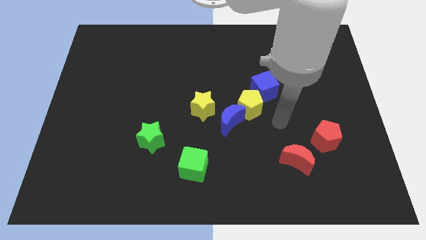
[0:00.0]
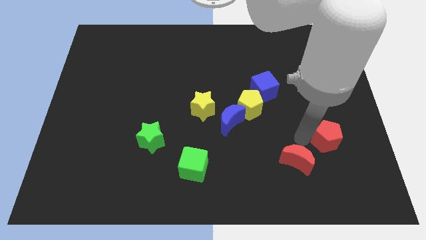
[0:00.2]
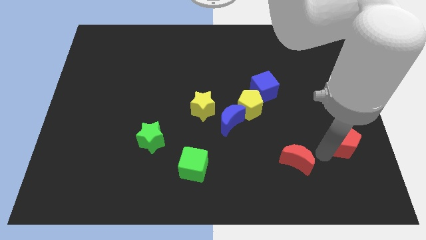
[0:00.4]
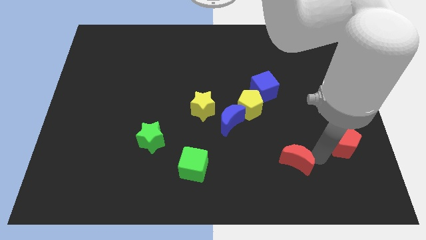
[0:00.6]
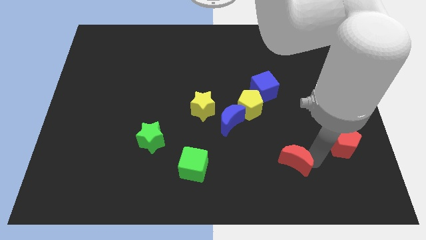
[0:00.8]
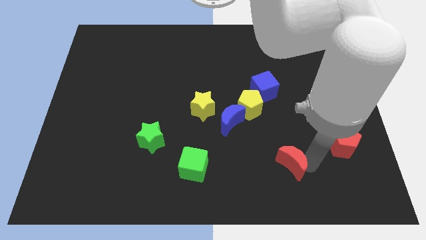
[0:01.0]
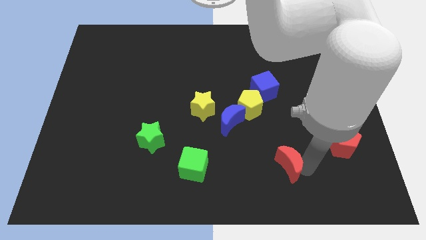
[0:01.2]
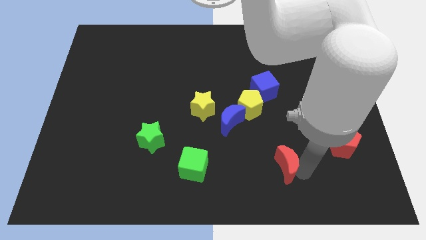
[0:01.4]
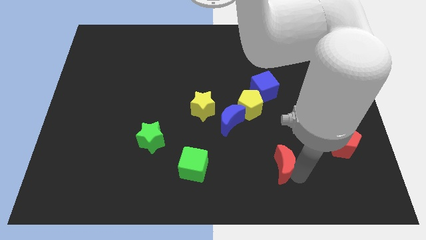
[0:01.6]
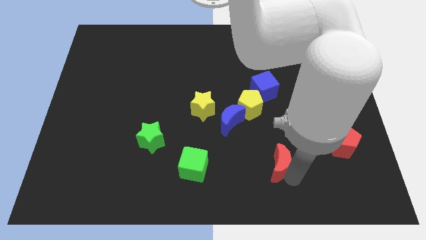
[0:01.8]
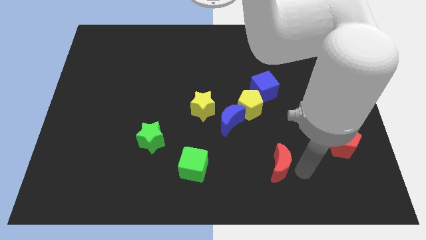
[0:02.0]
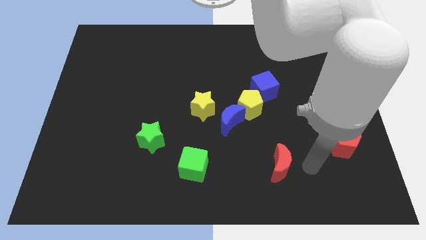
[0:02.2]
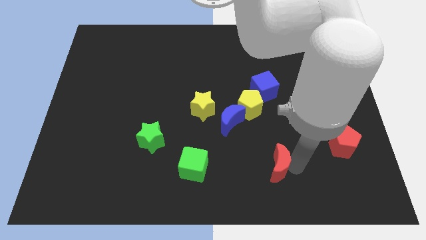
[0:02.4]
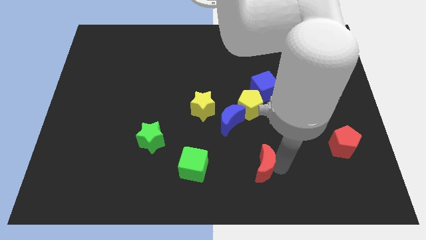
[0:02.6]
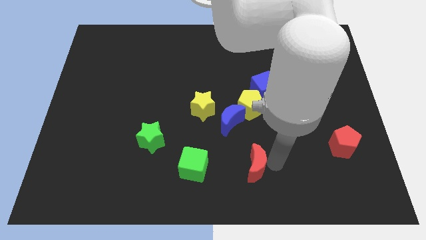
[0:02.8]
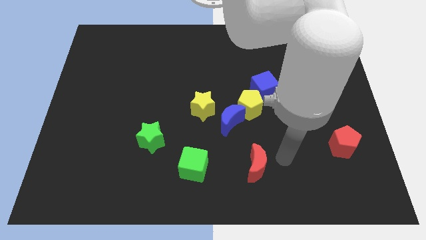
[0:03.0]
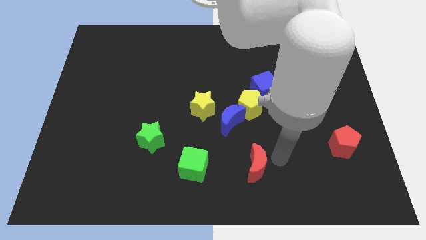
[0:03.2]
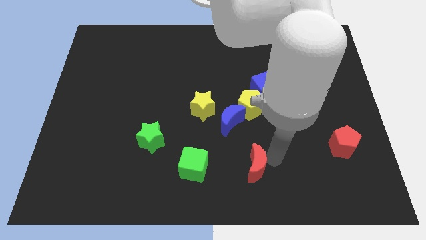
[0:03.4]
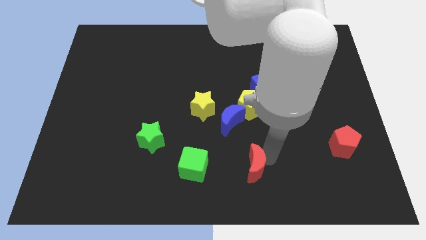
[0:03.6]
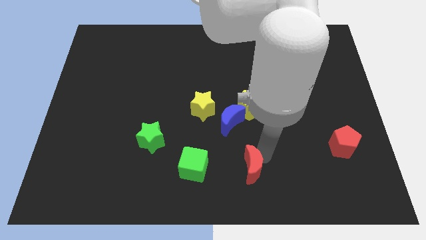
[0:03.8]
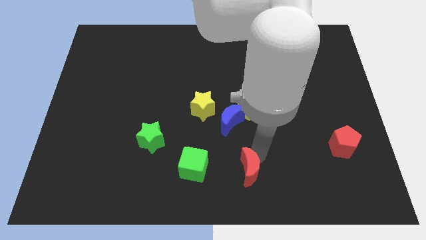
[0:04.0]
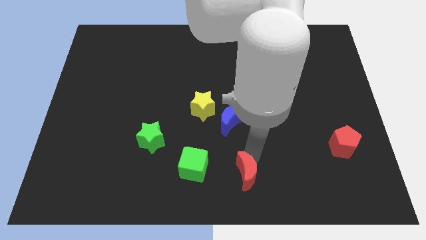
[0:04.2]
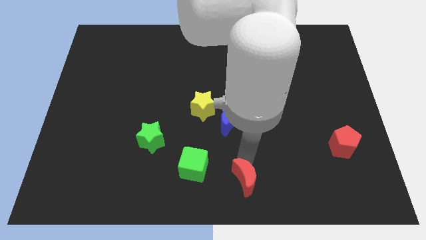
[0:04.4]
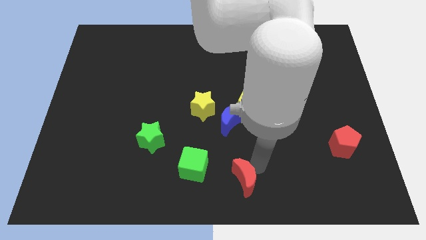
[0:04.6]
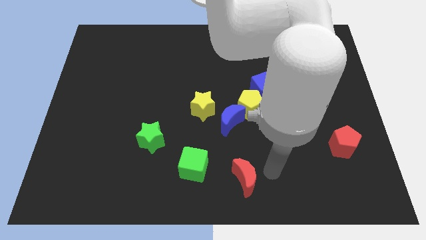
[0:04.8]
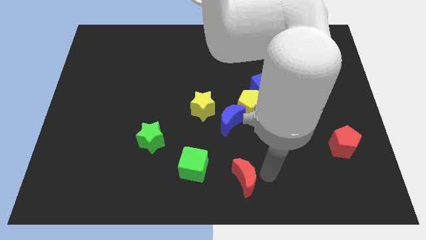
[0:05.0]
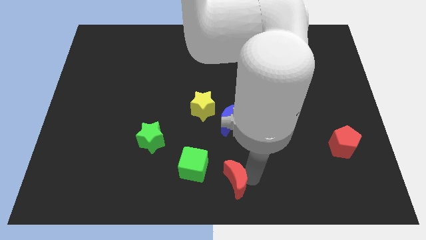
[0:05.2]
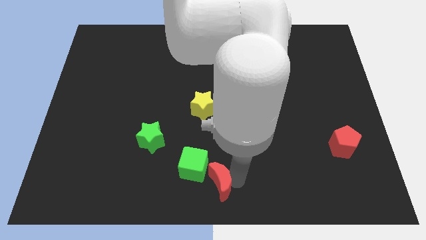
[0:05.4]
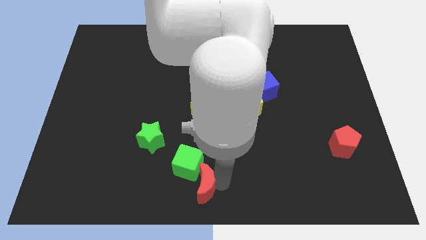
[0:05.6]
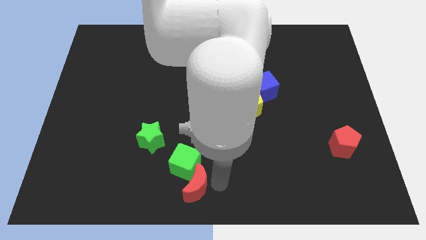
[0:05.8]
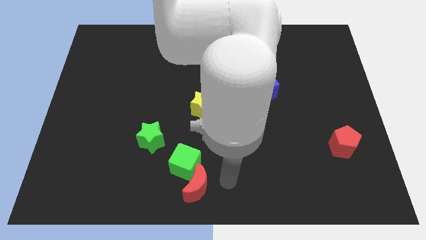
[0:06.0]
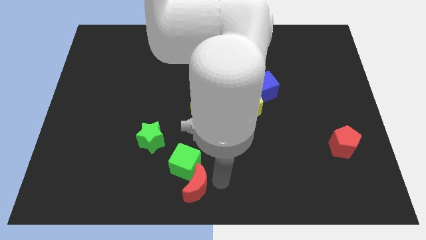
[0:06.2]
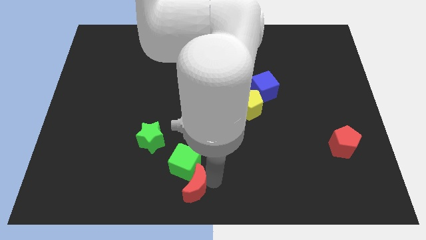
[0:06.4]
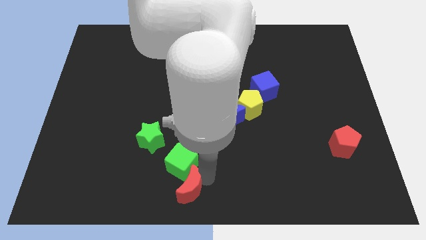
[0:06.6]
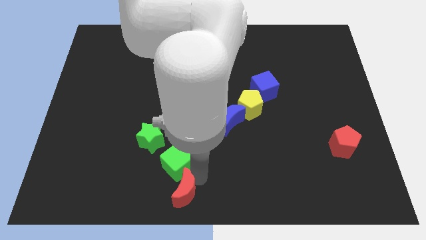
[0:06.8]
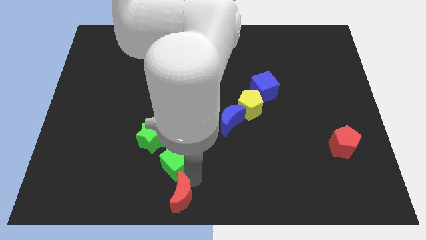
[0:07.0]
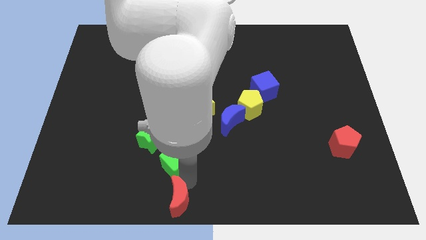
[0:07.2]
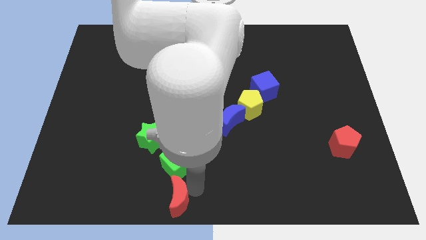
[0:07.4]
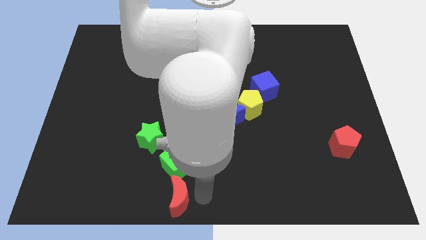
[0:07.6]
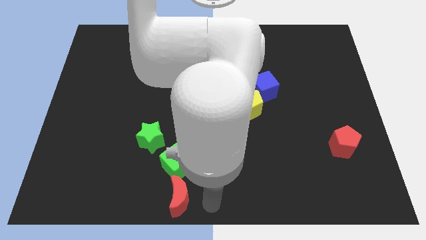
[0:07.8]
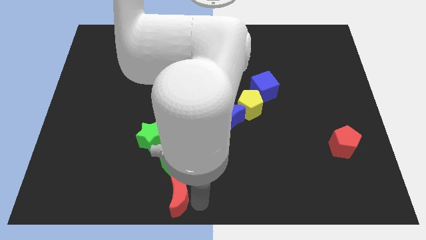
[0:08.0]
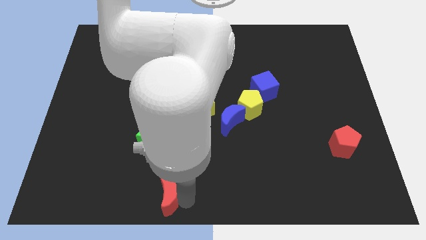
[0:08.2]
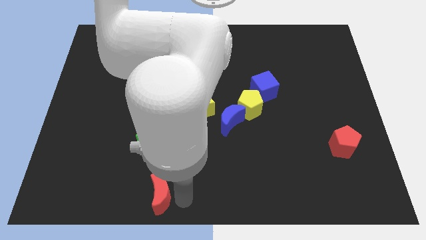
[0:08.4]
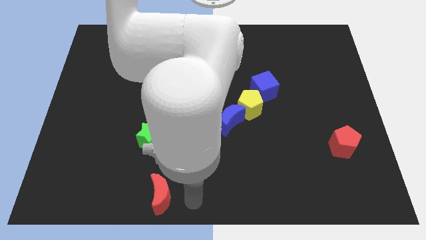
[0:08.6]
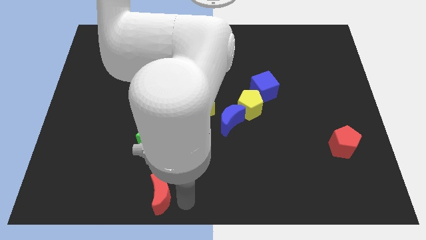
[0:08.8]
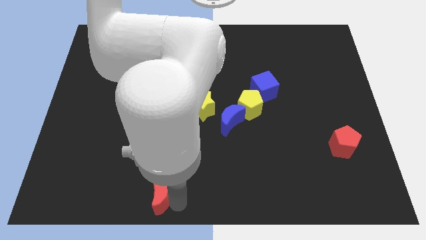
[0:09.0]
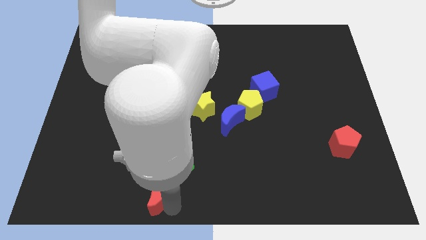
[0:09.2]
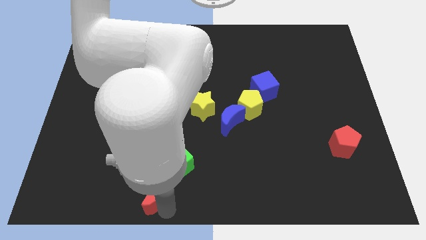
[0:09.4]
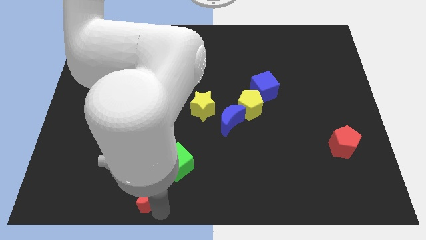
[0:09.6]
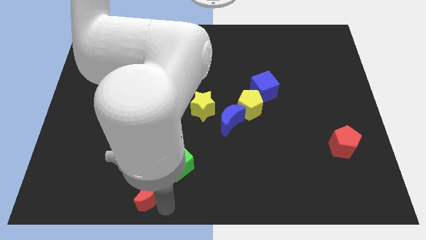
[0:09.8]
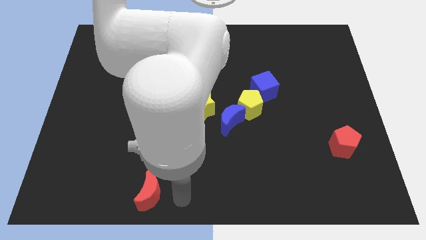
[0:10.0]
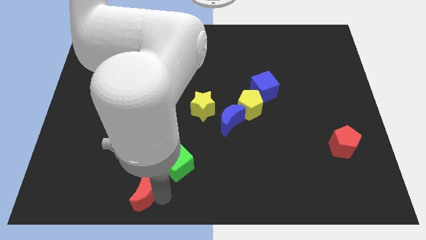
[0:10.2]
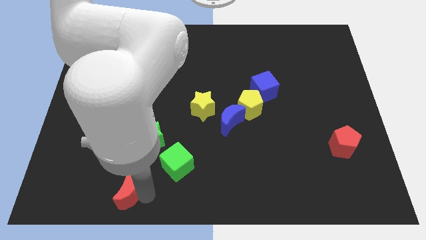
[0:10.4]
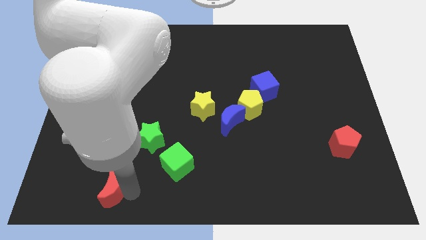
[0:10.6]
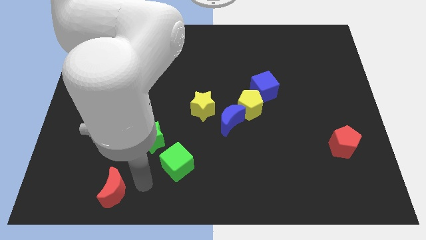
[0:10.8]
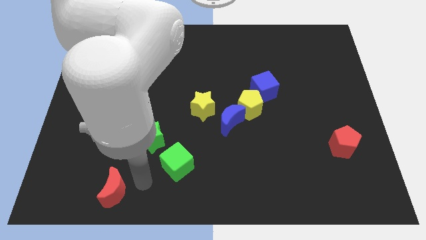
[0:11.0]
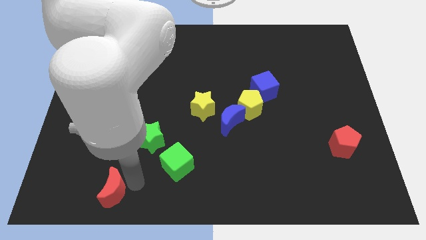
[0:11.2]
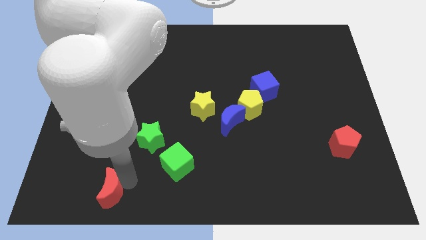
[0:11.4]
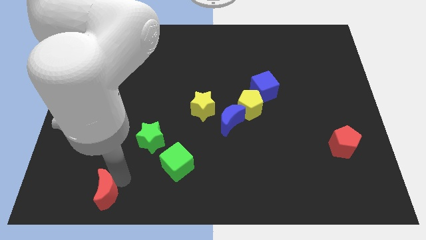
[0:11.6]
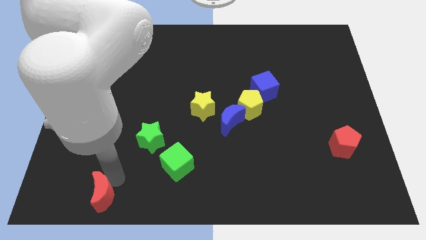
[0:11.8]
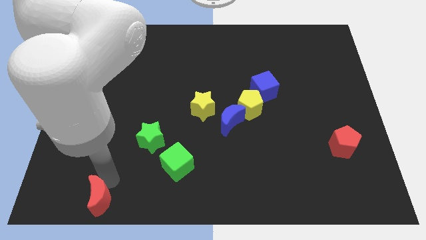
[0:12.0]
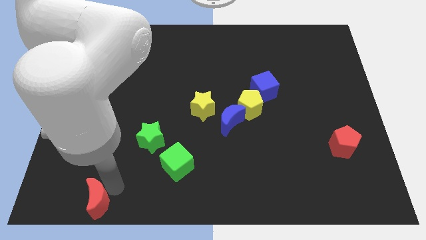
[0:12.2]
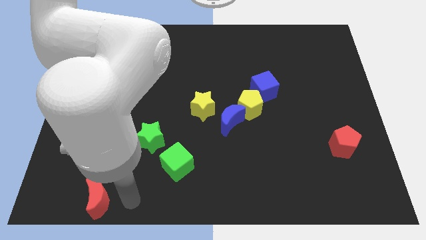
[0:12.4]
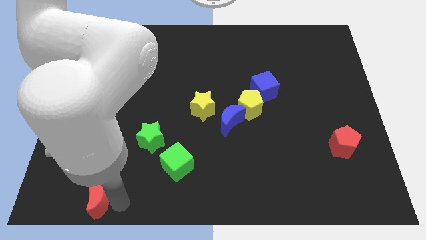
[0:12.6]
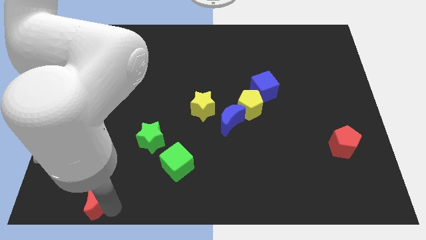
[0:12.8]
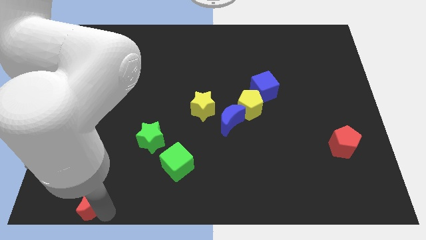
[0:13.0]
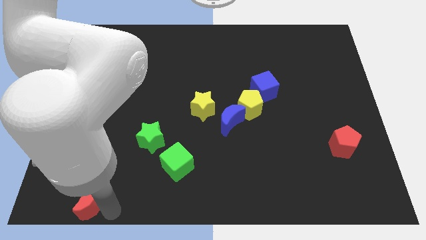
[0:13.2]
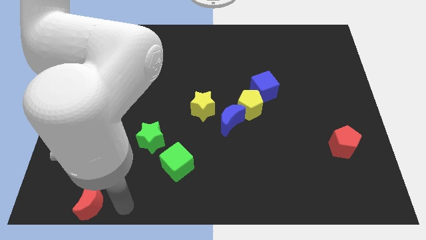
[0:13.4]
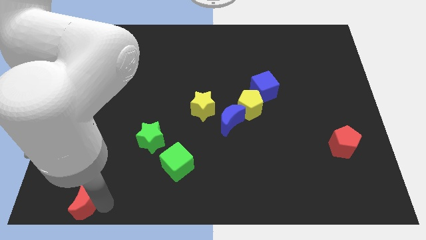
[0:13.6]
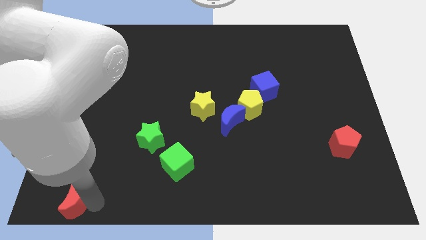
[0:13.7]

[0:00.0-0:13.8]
put the red moon to the lower left corner
